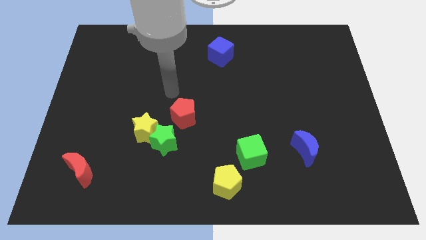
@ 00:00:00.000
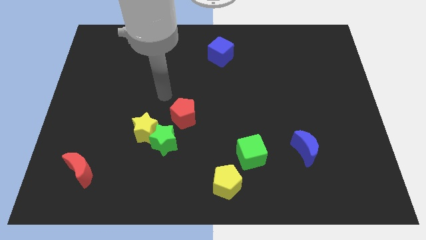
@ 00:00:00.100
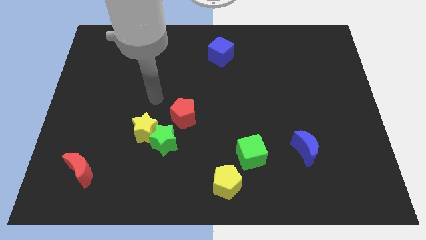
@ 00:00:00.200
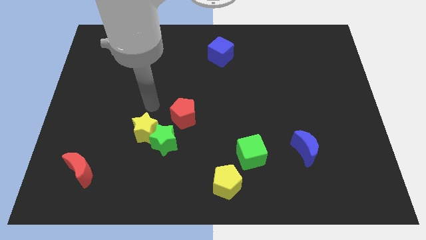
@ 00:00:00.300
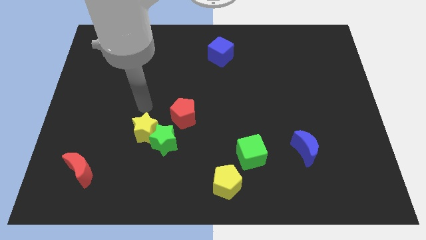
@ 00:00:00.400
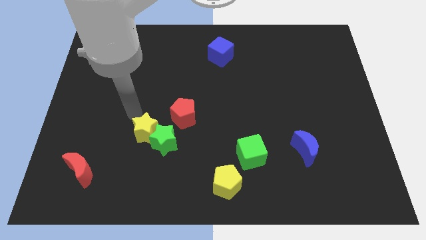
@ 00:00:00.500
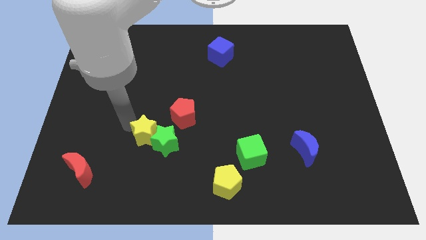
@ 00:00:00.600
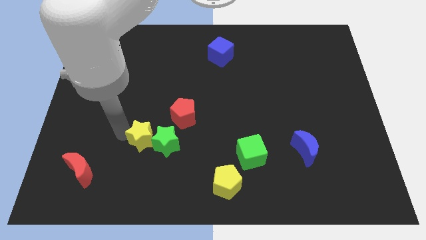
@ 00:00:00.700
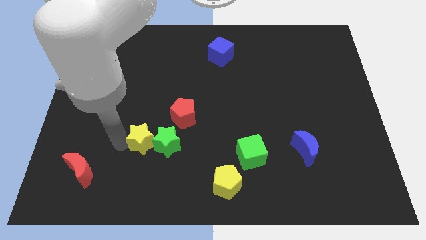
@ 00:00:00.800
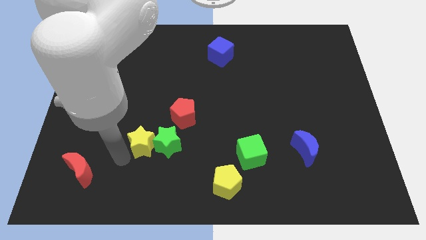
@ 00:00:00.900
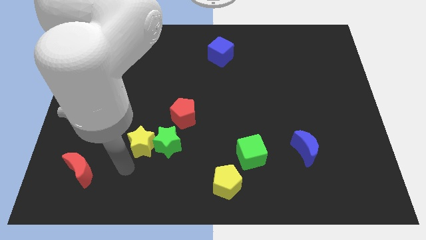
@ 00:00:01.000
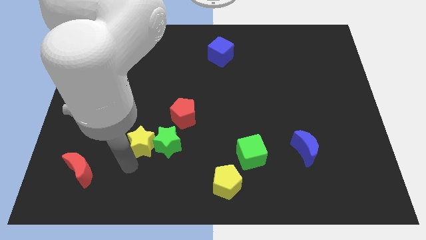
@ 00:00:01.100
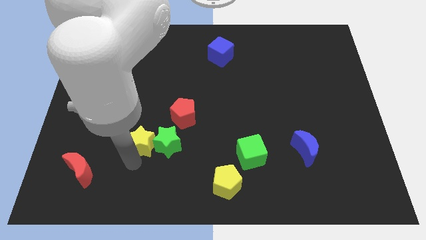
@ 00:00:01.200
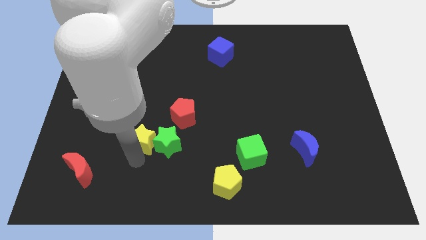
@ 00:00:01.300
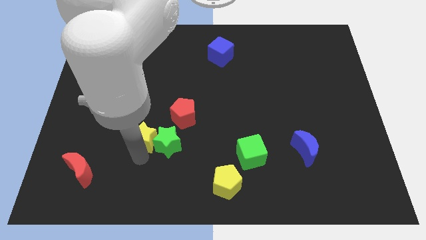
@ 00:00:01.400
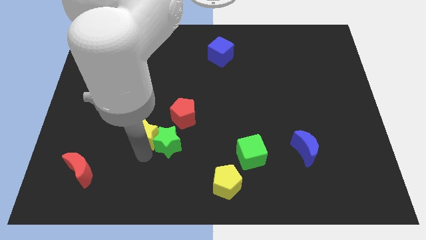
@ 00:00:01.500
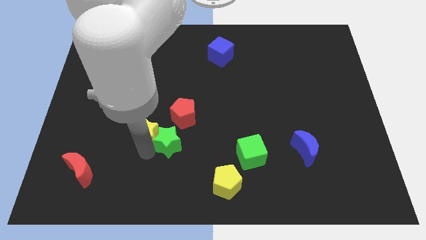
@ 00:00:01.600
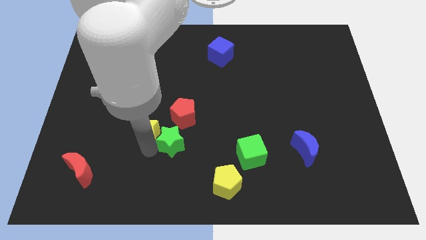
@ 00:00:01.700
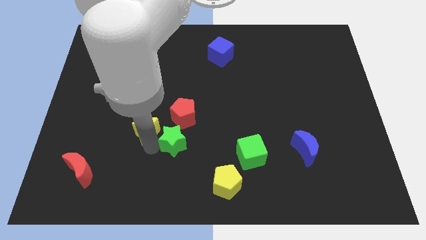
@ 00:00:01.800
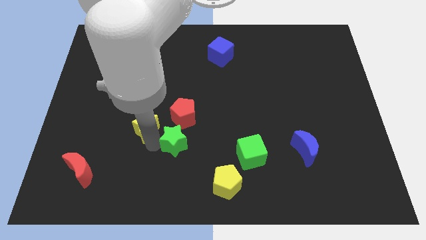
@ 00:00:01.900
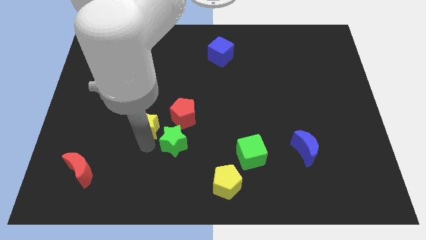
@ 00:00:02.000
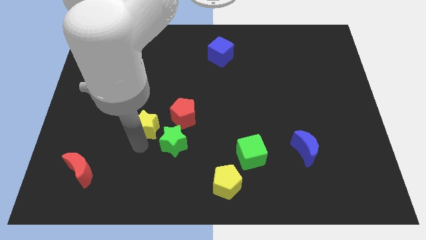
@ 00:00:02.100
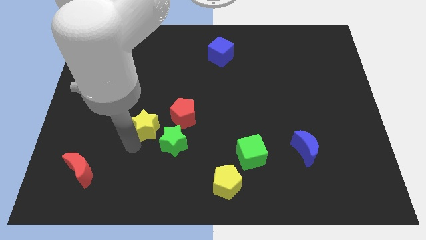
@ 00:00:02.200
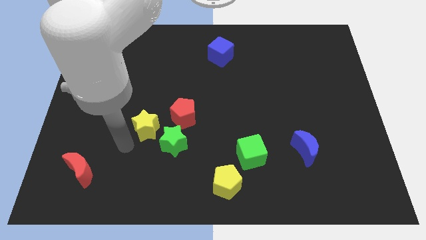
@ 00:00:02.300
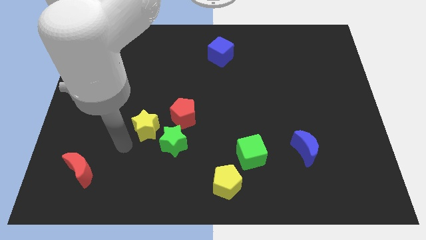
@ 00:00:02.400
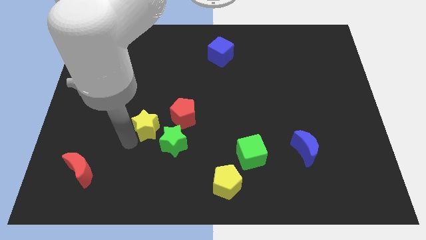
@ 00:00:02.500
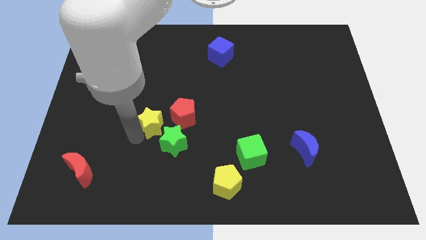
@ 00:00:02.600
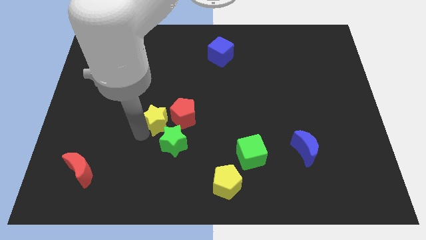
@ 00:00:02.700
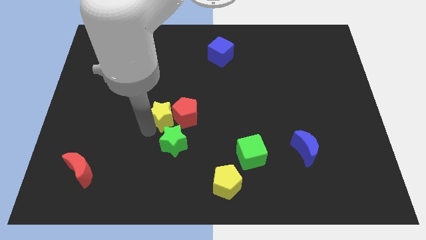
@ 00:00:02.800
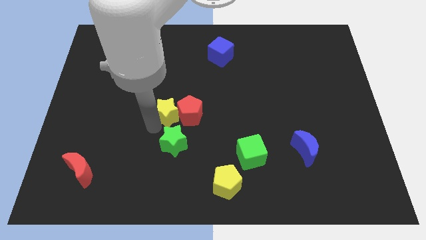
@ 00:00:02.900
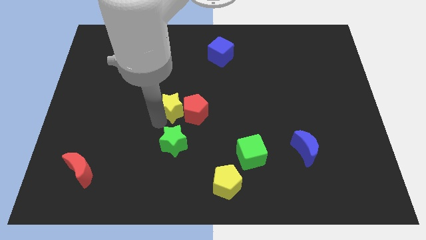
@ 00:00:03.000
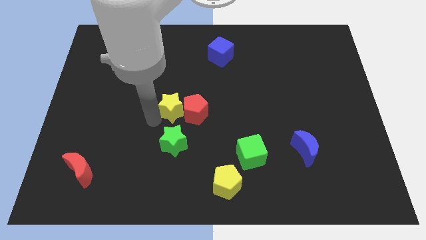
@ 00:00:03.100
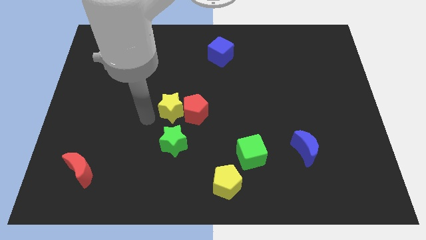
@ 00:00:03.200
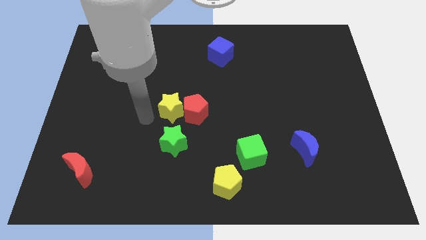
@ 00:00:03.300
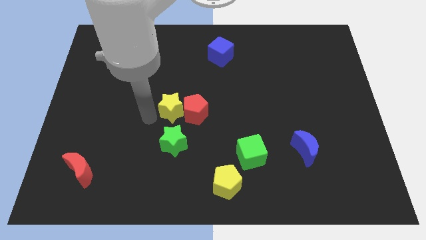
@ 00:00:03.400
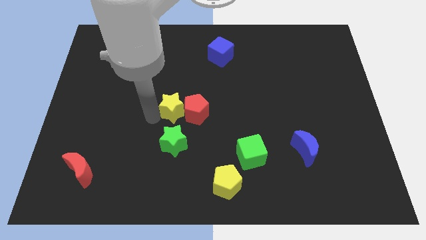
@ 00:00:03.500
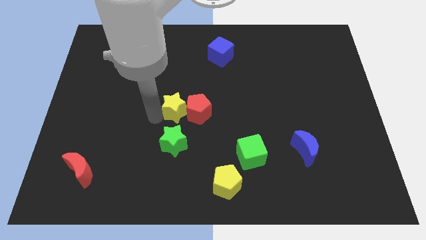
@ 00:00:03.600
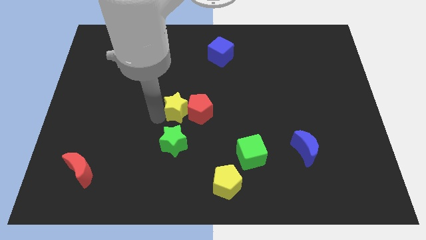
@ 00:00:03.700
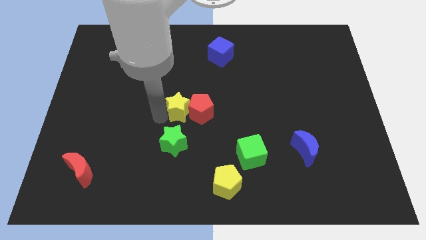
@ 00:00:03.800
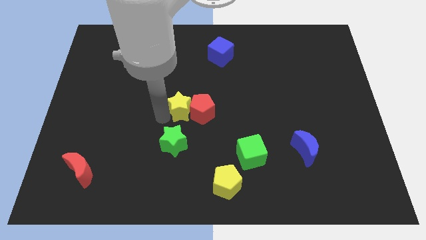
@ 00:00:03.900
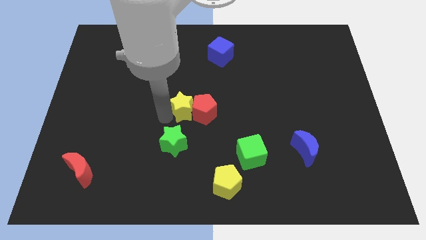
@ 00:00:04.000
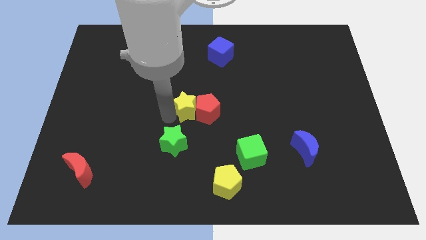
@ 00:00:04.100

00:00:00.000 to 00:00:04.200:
slide the yellow star a little bit right

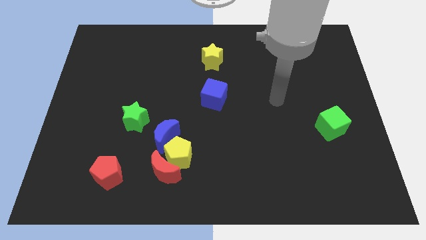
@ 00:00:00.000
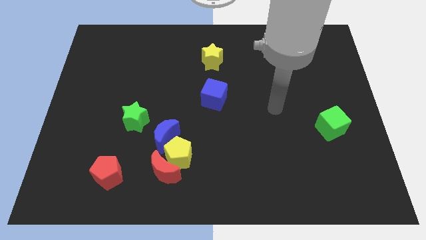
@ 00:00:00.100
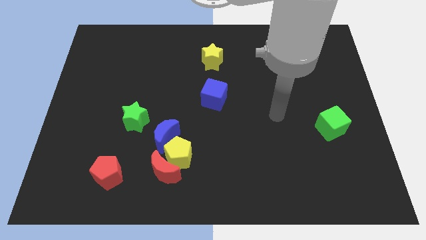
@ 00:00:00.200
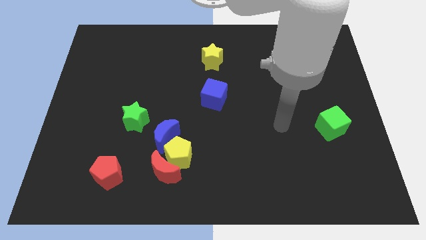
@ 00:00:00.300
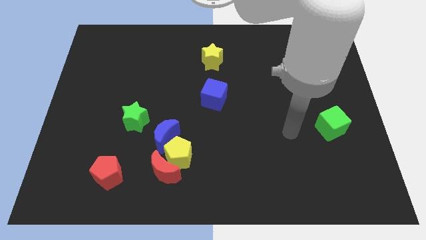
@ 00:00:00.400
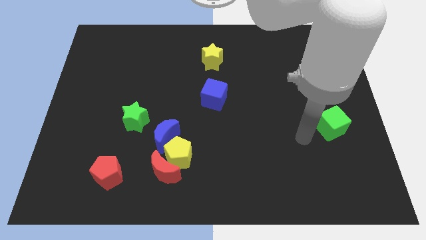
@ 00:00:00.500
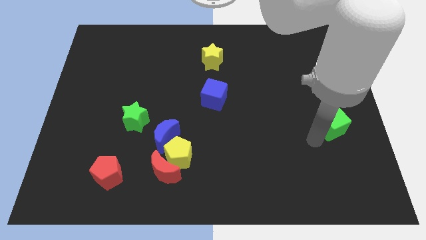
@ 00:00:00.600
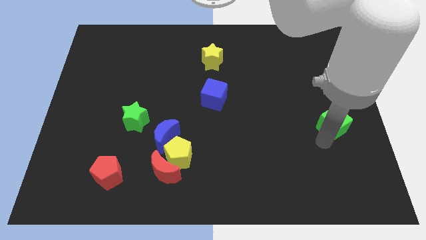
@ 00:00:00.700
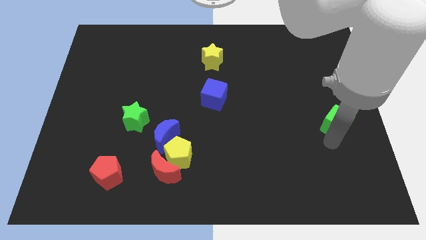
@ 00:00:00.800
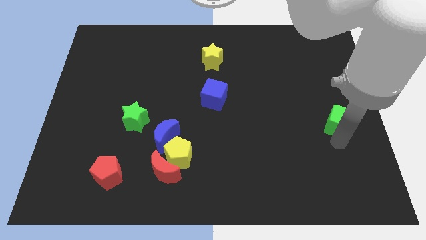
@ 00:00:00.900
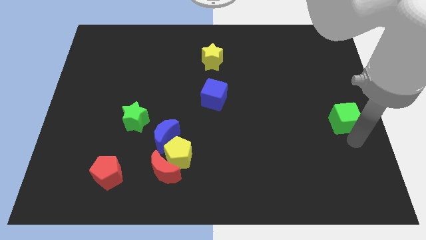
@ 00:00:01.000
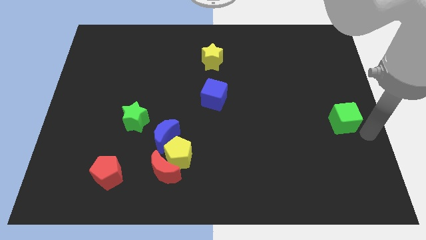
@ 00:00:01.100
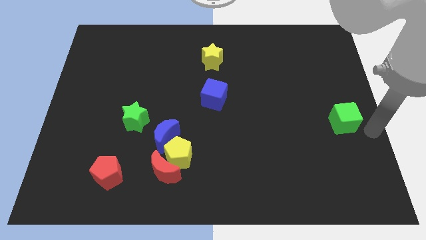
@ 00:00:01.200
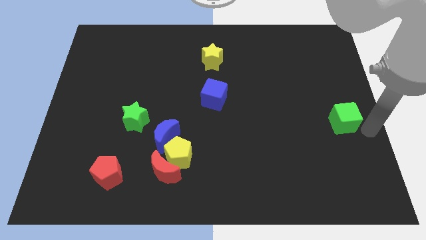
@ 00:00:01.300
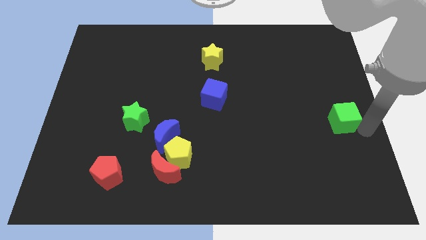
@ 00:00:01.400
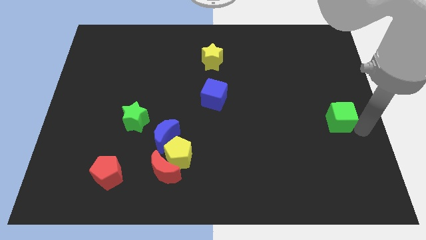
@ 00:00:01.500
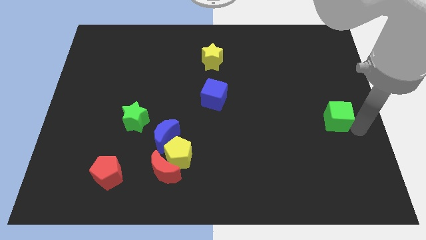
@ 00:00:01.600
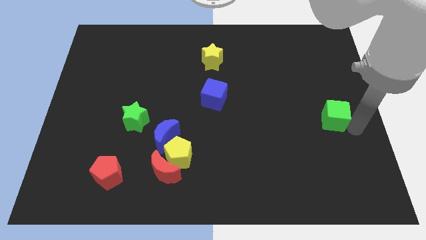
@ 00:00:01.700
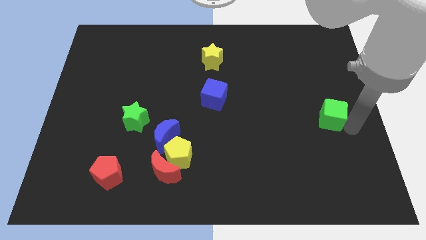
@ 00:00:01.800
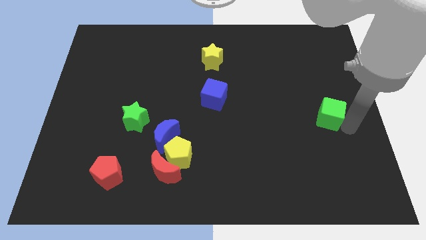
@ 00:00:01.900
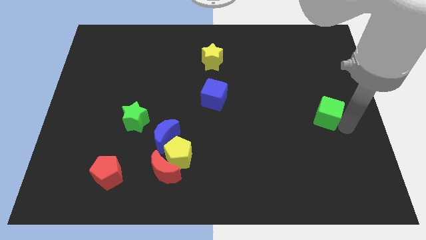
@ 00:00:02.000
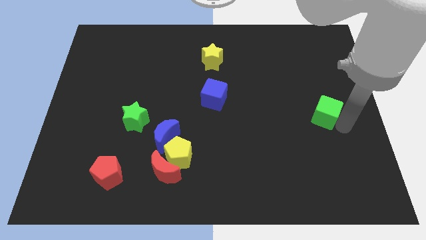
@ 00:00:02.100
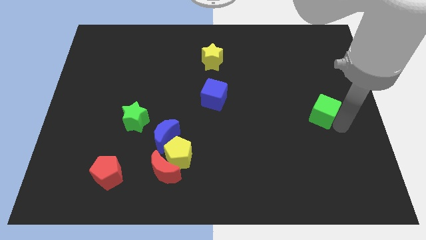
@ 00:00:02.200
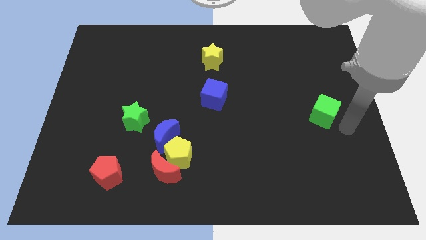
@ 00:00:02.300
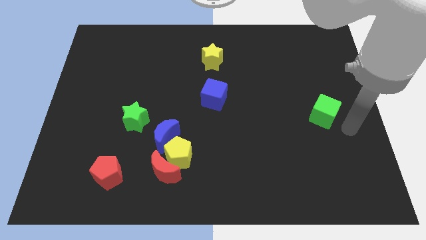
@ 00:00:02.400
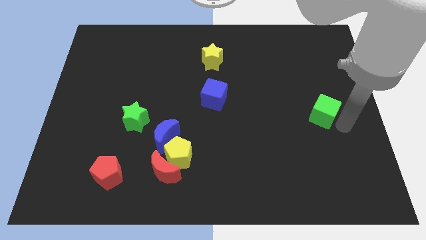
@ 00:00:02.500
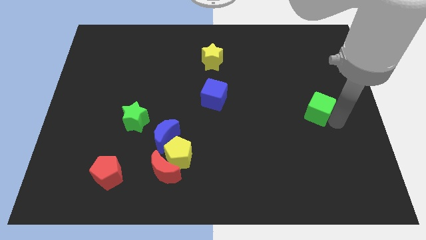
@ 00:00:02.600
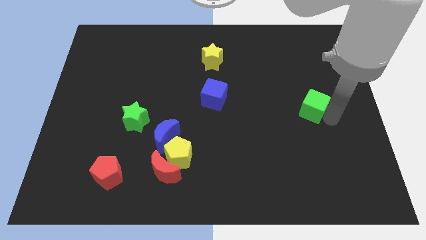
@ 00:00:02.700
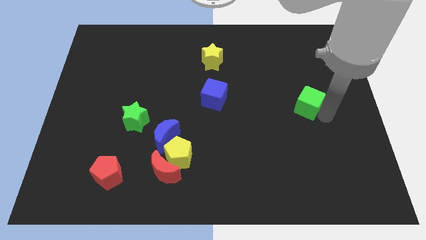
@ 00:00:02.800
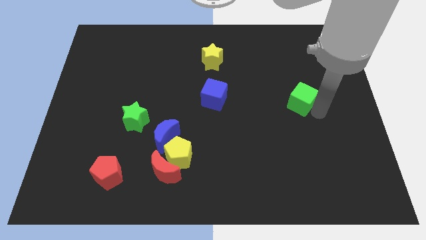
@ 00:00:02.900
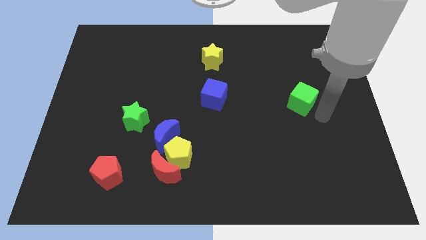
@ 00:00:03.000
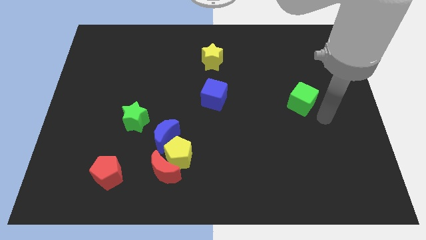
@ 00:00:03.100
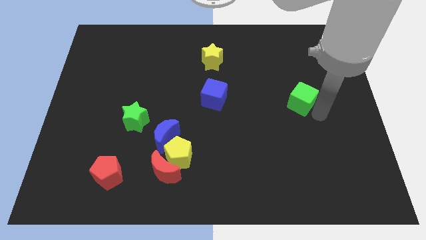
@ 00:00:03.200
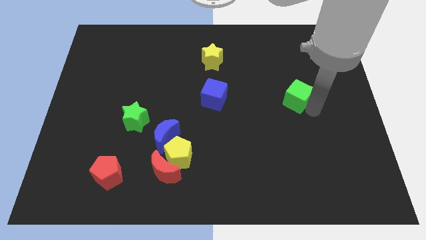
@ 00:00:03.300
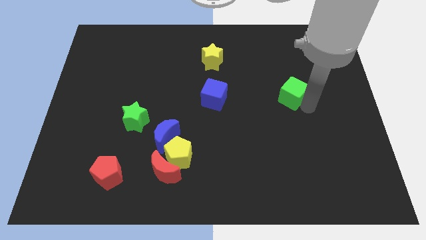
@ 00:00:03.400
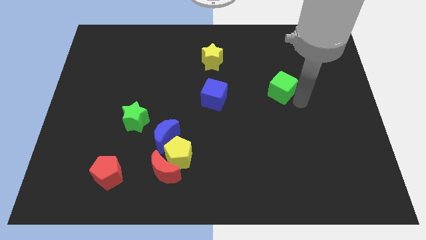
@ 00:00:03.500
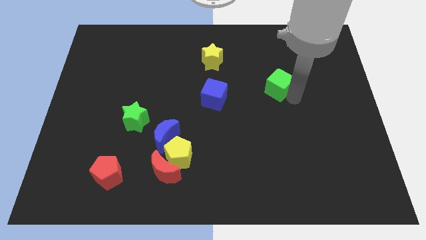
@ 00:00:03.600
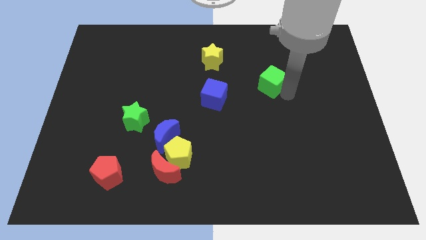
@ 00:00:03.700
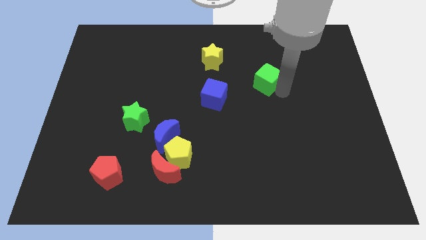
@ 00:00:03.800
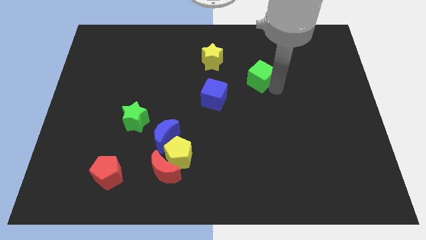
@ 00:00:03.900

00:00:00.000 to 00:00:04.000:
push the green cube diagonally up and left
